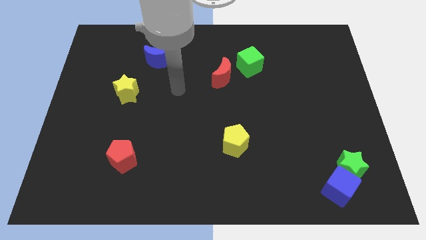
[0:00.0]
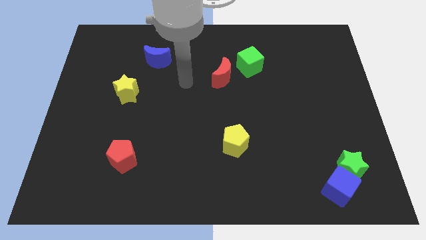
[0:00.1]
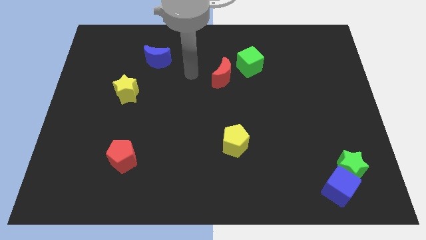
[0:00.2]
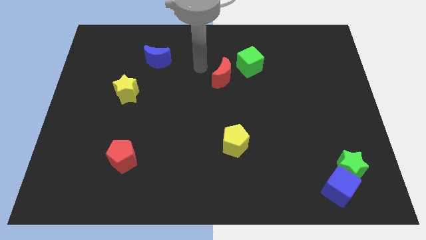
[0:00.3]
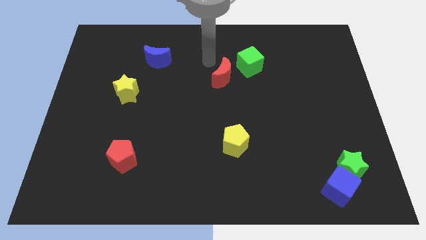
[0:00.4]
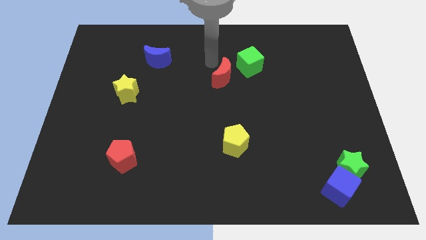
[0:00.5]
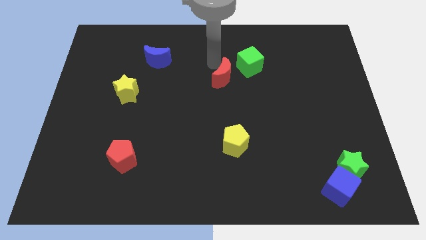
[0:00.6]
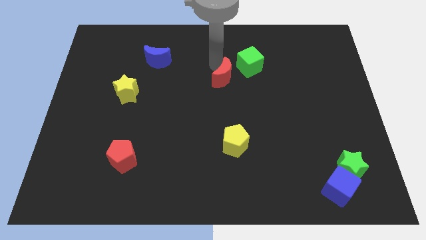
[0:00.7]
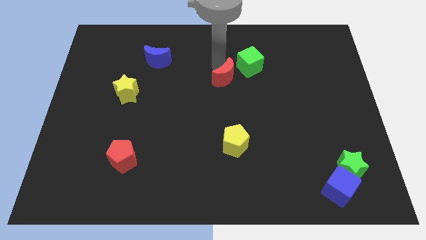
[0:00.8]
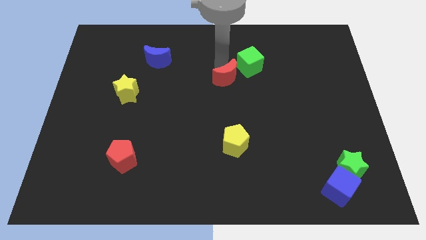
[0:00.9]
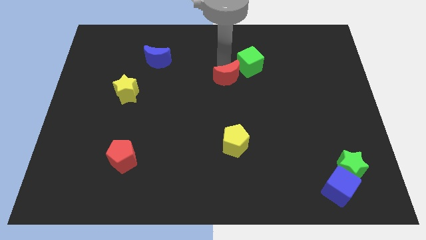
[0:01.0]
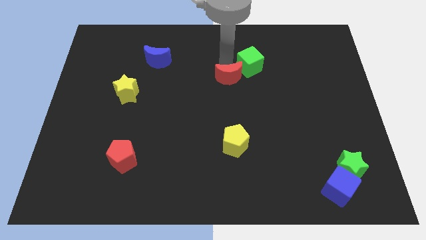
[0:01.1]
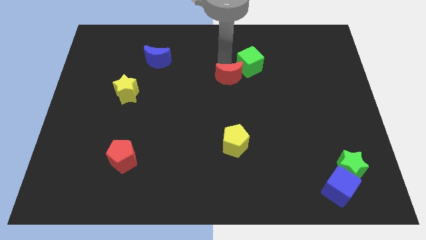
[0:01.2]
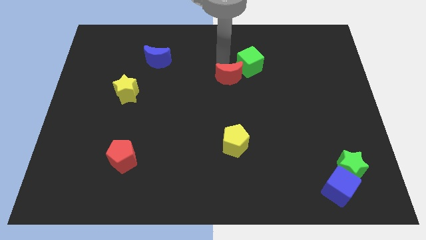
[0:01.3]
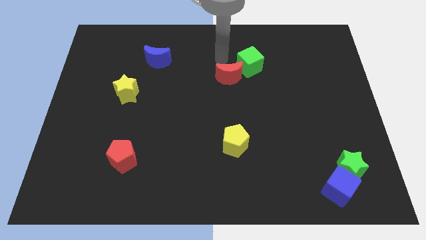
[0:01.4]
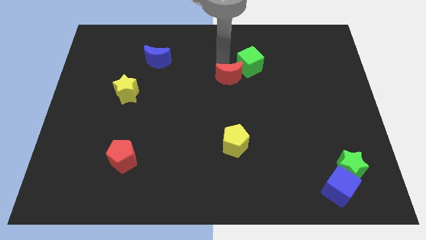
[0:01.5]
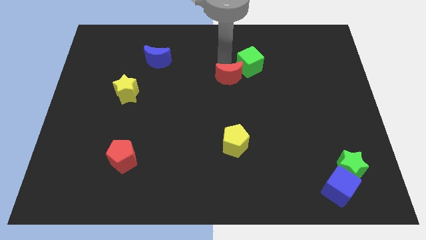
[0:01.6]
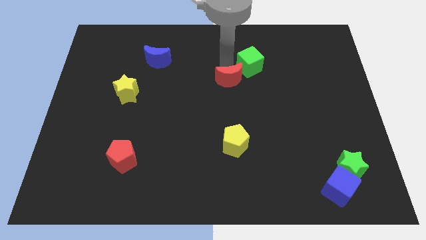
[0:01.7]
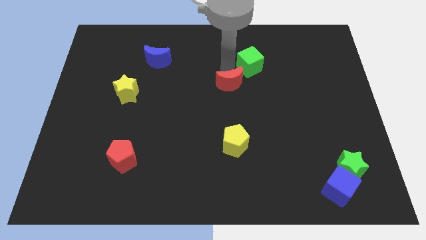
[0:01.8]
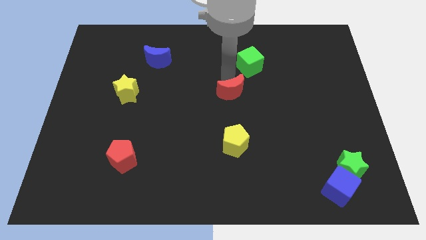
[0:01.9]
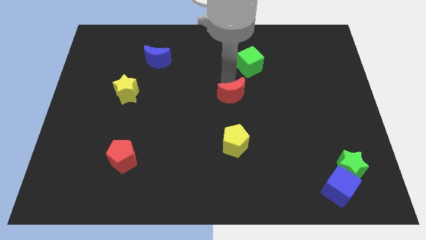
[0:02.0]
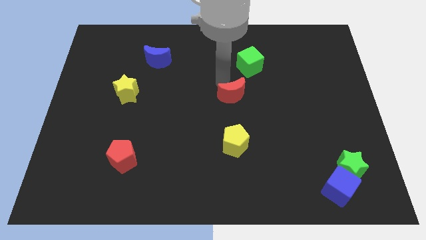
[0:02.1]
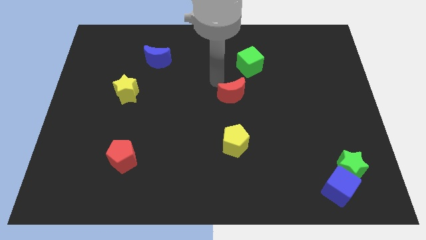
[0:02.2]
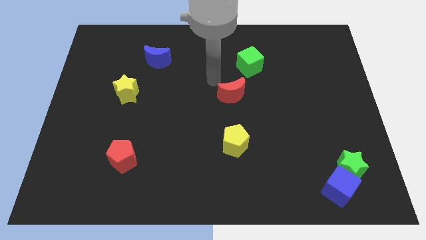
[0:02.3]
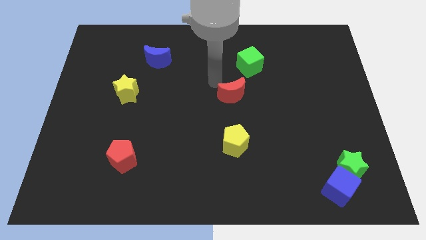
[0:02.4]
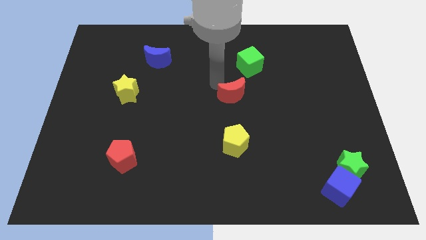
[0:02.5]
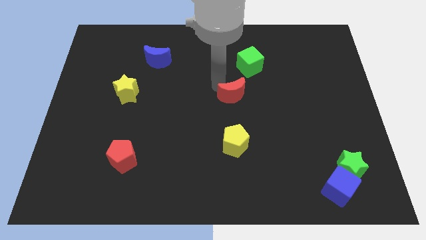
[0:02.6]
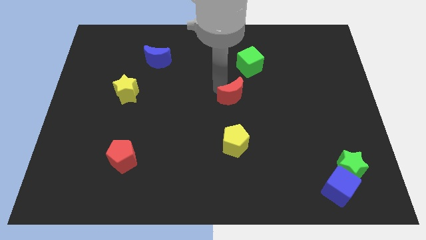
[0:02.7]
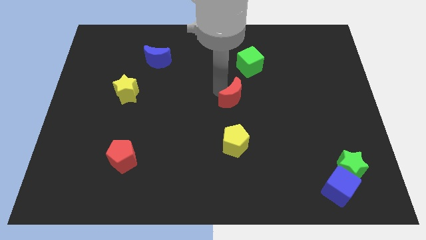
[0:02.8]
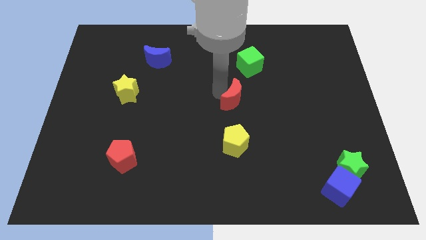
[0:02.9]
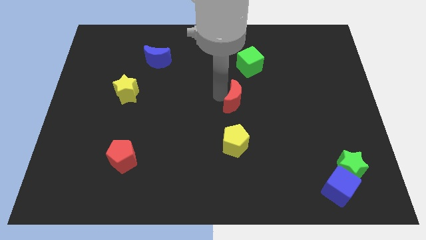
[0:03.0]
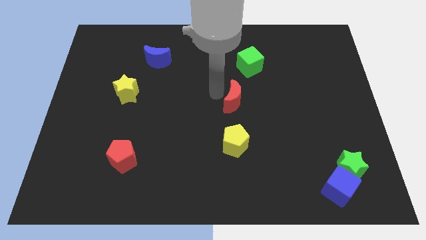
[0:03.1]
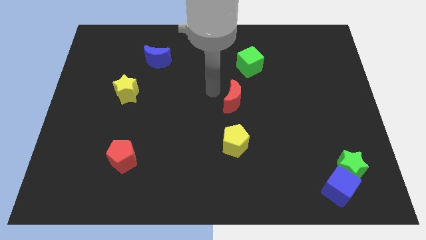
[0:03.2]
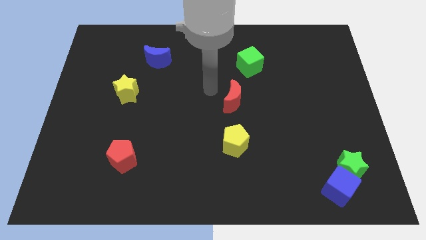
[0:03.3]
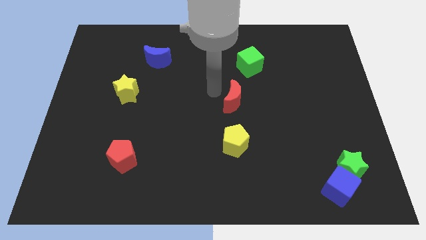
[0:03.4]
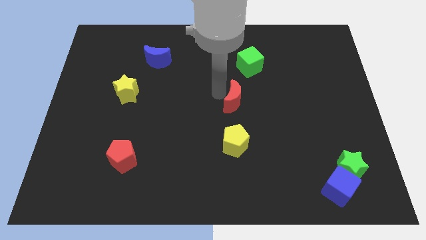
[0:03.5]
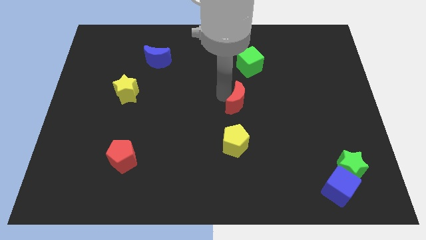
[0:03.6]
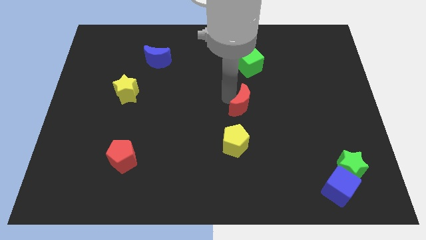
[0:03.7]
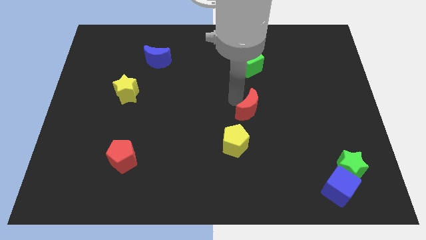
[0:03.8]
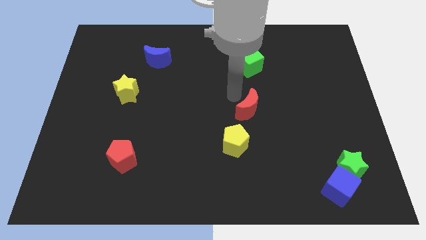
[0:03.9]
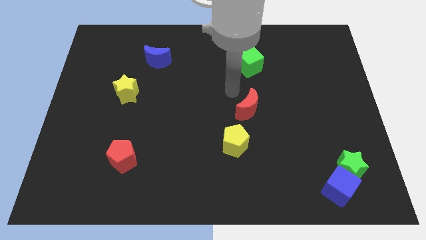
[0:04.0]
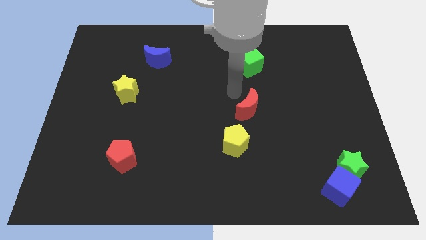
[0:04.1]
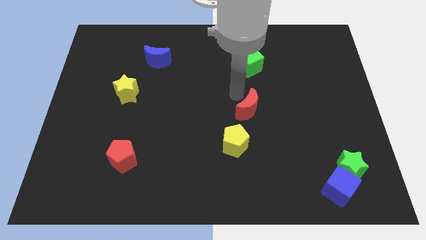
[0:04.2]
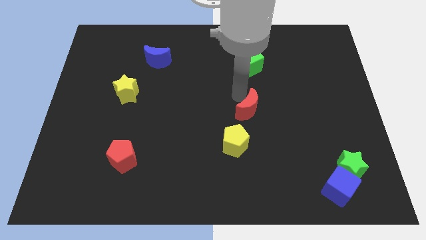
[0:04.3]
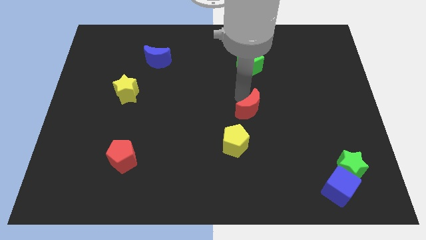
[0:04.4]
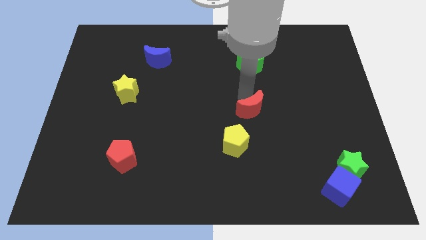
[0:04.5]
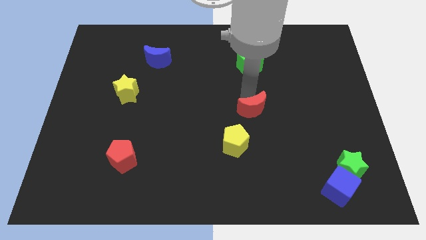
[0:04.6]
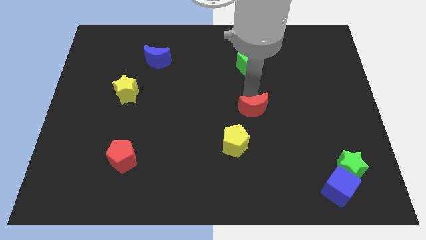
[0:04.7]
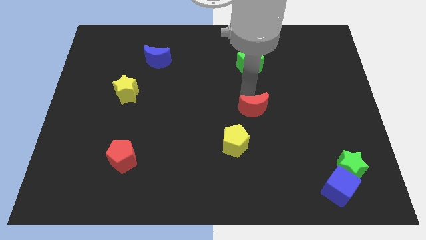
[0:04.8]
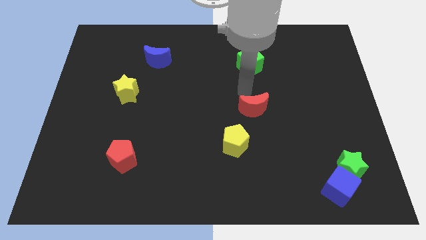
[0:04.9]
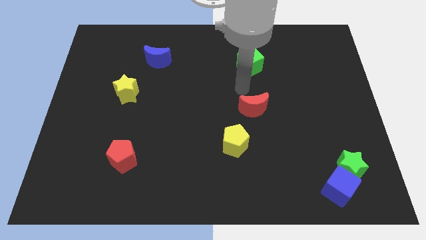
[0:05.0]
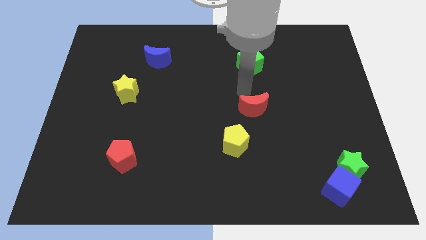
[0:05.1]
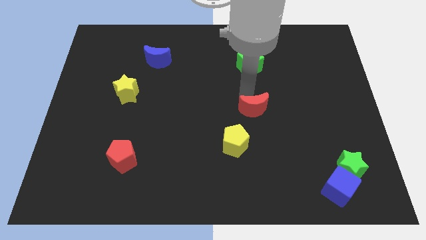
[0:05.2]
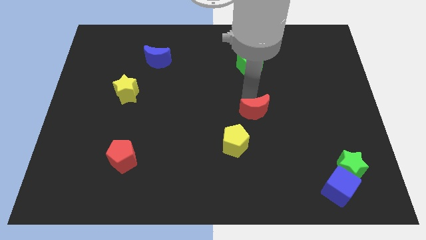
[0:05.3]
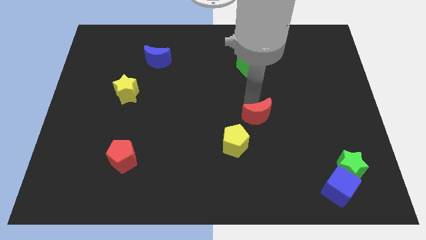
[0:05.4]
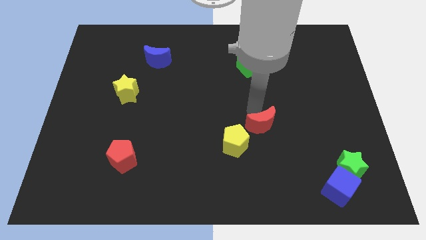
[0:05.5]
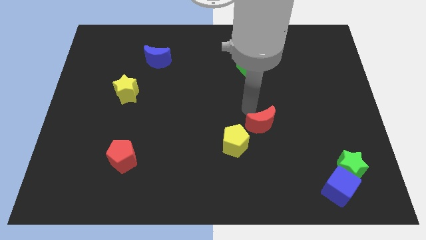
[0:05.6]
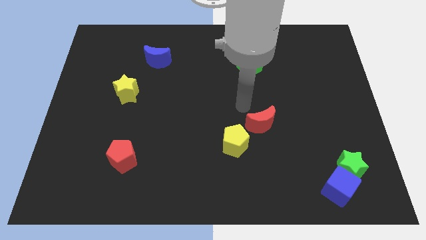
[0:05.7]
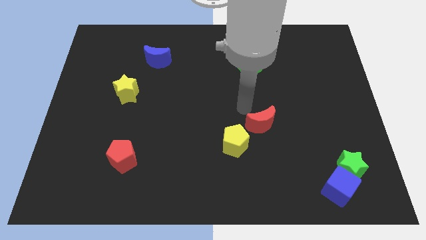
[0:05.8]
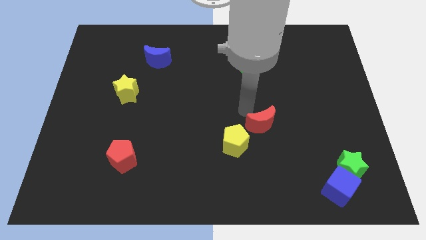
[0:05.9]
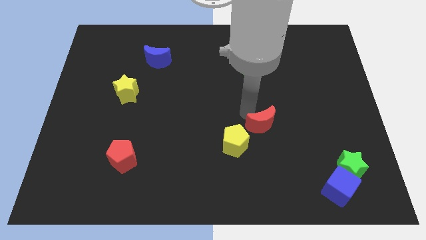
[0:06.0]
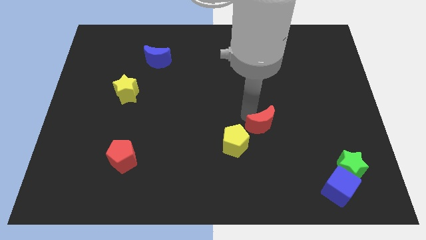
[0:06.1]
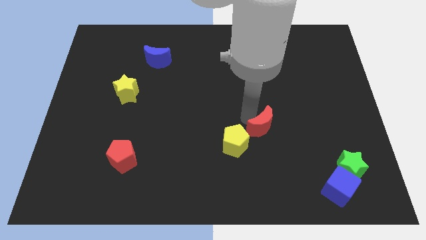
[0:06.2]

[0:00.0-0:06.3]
move the red moon to the right side of the yellow pentagon

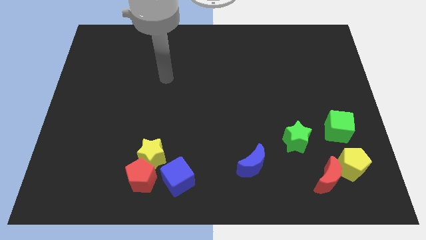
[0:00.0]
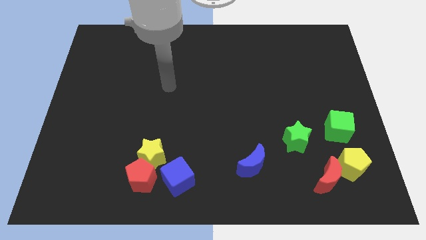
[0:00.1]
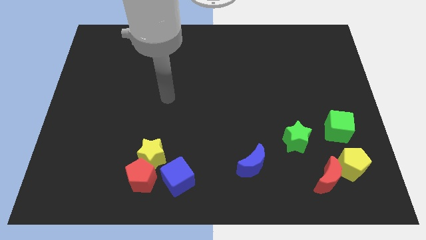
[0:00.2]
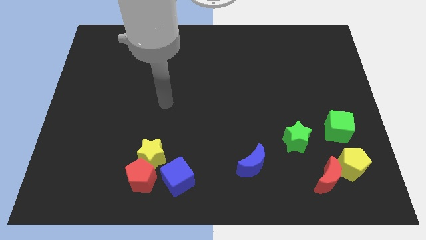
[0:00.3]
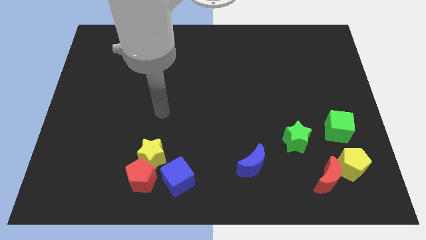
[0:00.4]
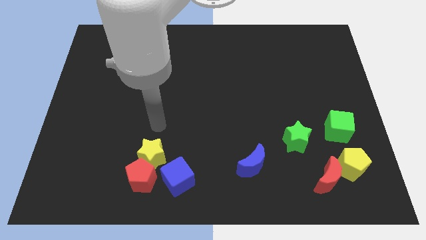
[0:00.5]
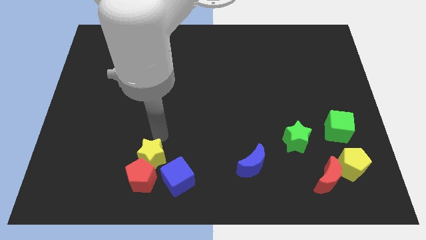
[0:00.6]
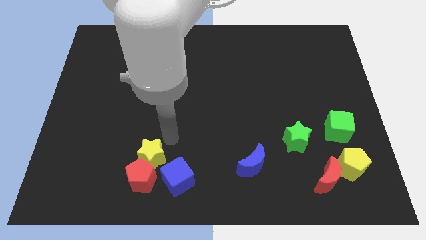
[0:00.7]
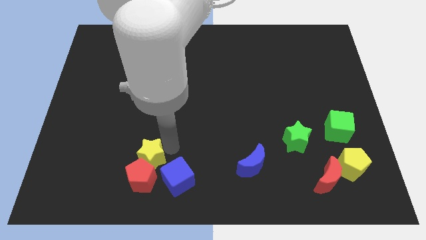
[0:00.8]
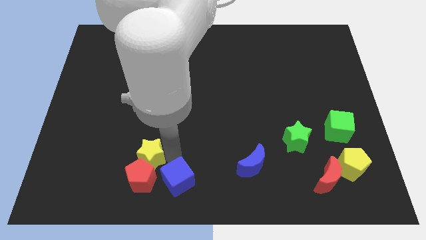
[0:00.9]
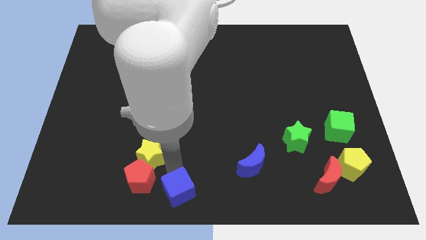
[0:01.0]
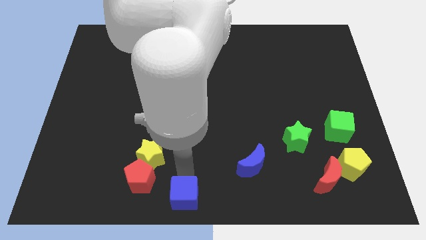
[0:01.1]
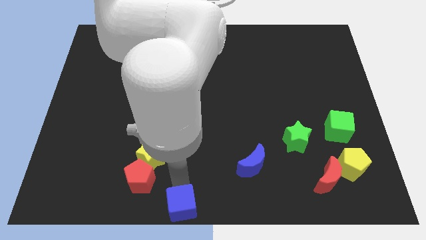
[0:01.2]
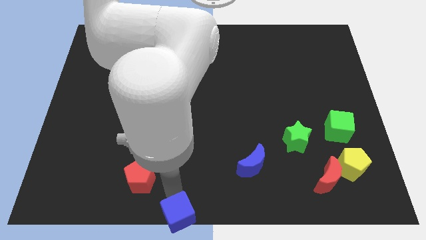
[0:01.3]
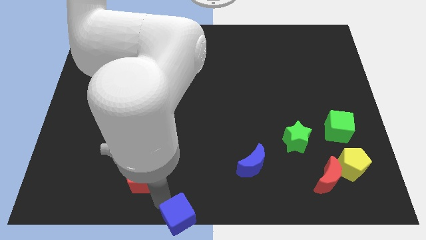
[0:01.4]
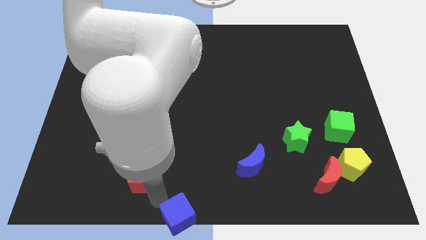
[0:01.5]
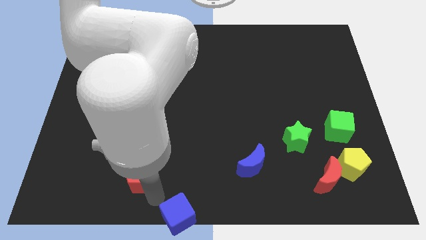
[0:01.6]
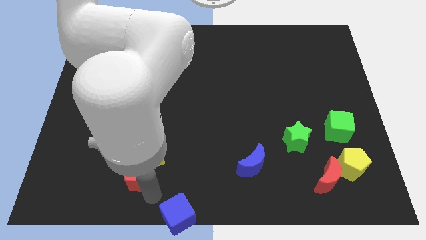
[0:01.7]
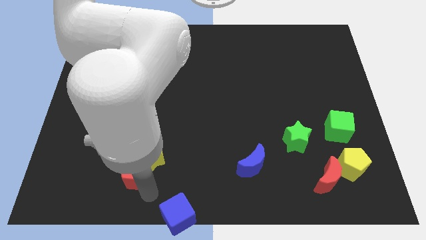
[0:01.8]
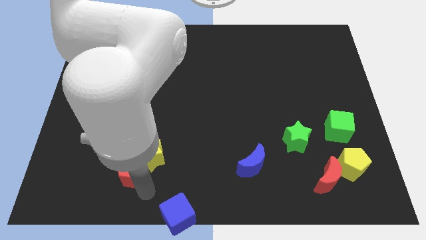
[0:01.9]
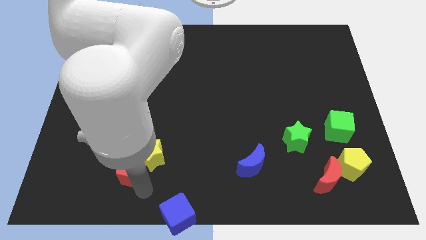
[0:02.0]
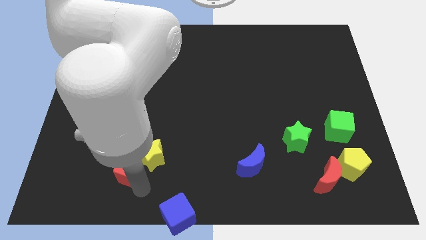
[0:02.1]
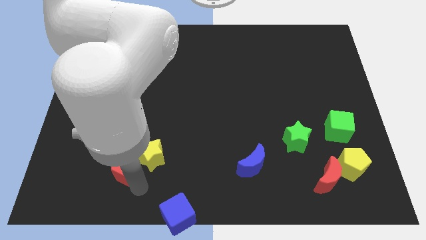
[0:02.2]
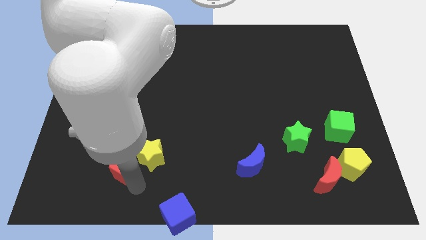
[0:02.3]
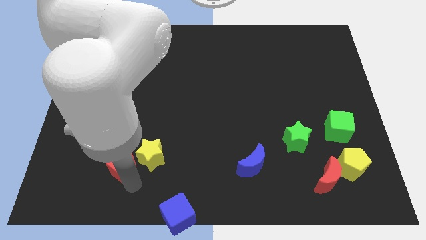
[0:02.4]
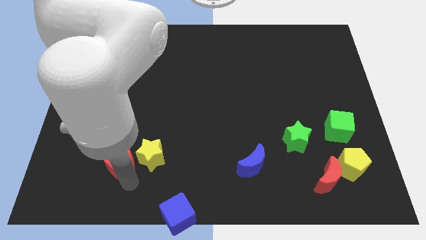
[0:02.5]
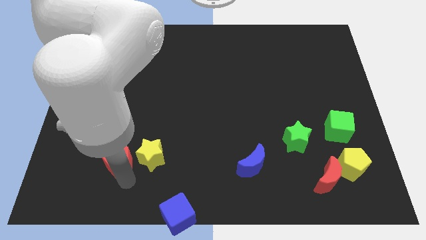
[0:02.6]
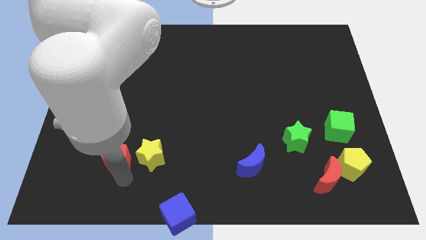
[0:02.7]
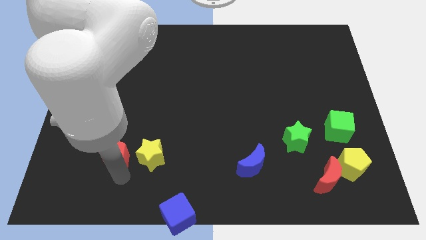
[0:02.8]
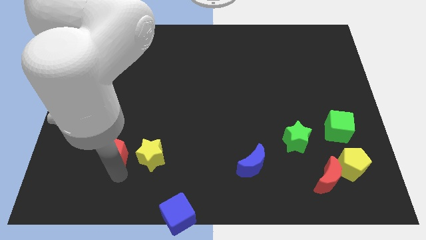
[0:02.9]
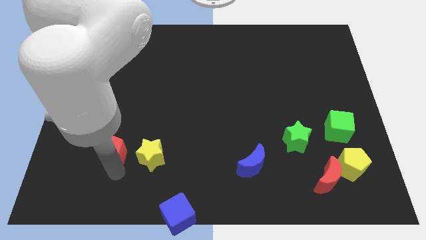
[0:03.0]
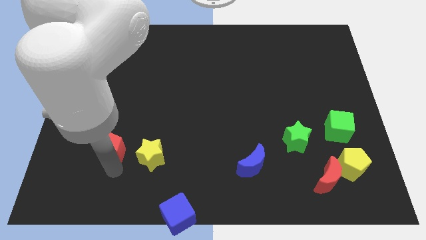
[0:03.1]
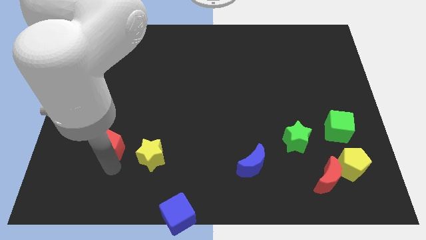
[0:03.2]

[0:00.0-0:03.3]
slide the red pentagon diagonally up and to the left of the yellow star
